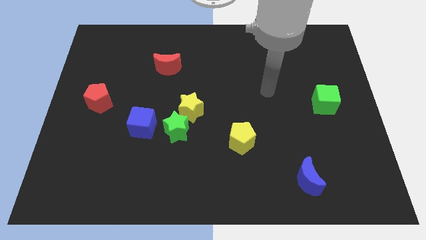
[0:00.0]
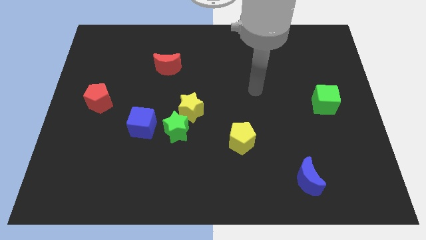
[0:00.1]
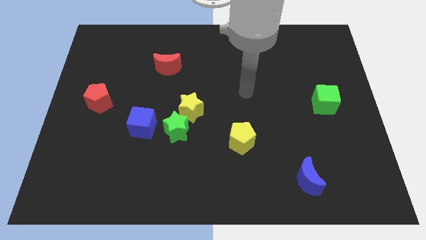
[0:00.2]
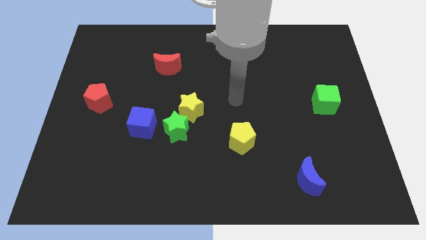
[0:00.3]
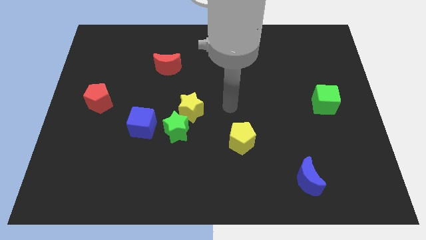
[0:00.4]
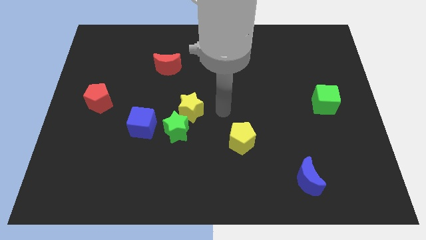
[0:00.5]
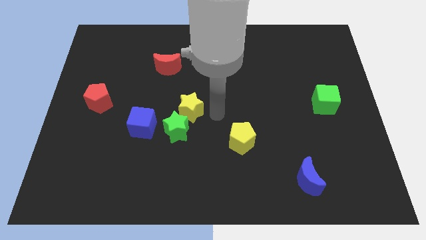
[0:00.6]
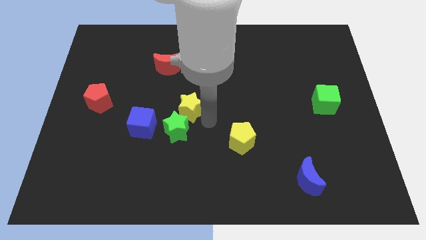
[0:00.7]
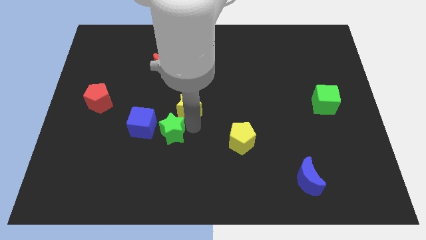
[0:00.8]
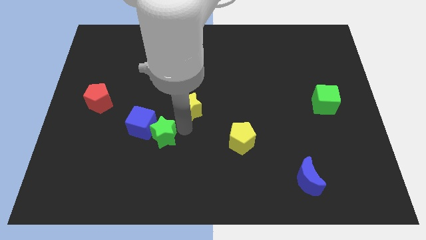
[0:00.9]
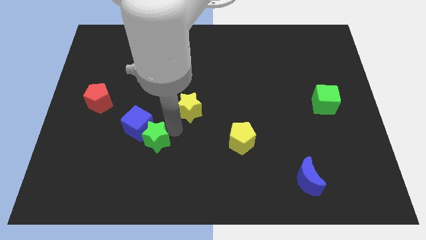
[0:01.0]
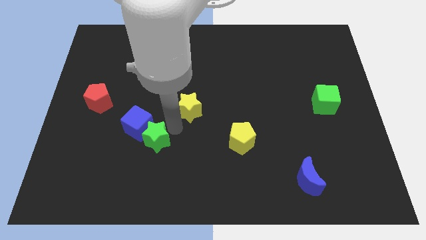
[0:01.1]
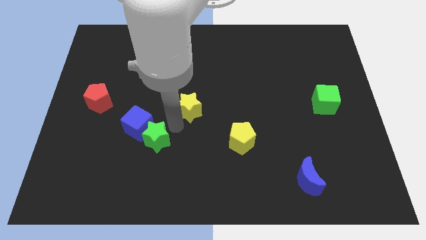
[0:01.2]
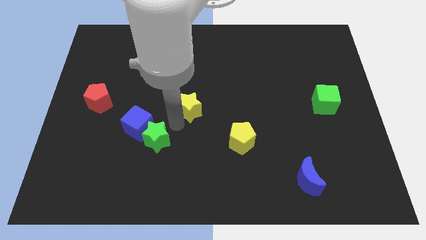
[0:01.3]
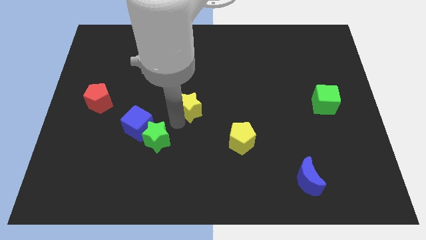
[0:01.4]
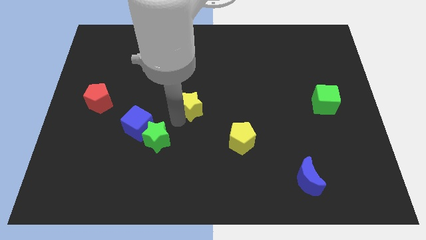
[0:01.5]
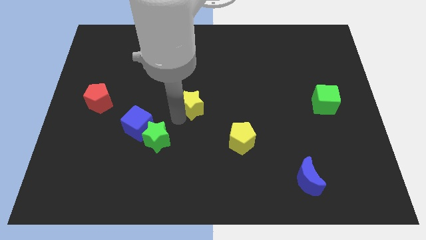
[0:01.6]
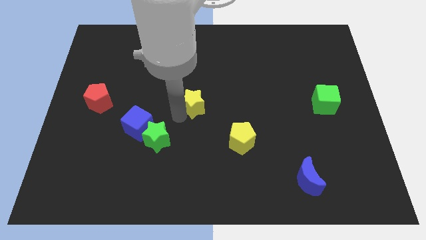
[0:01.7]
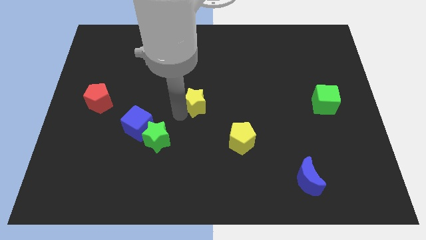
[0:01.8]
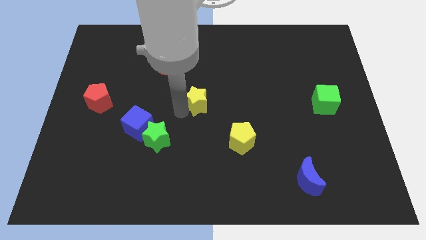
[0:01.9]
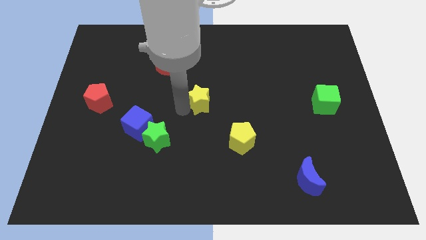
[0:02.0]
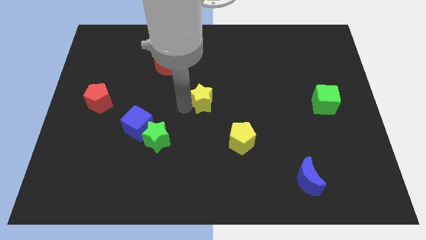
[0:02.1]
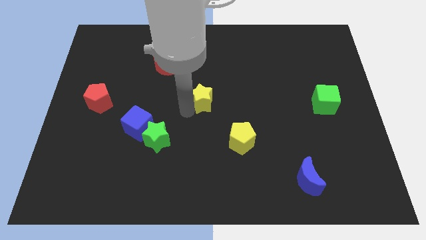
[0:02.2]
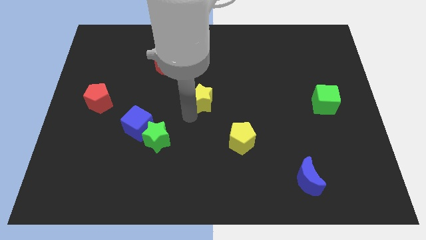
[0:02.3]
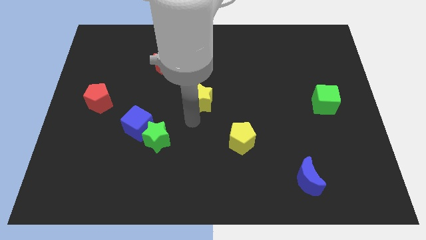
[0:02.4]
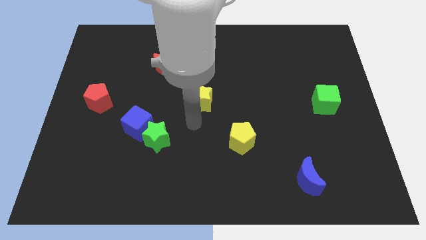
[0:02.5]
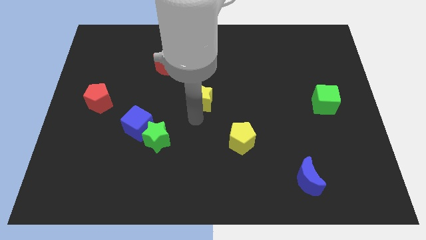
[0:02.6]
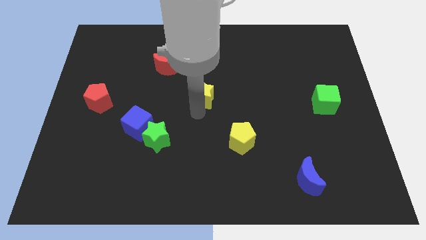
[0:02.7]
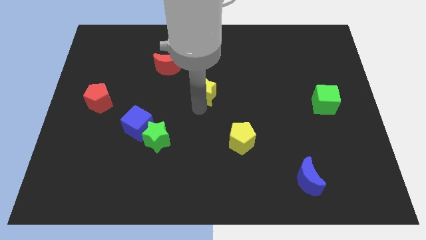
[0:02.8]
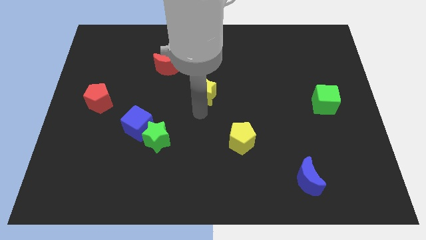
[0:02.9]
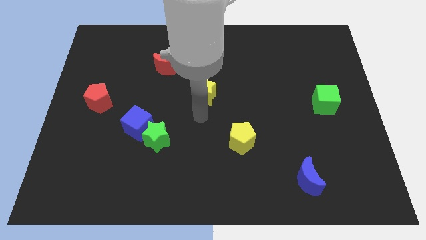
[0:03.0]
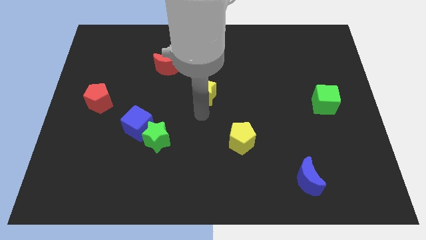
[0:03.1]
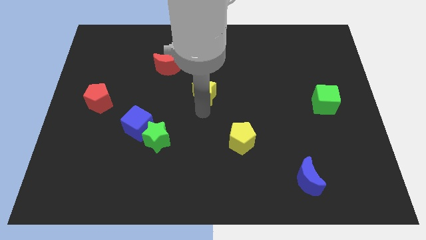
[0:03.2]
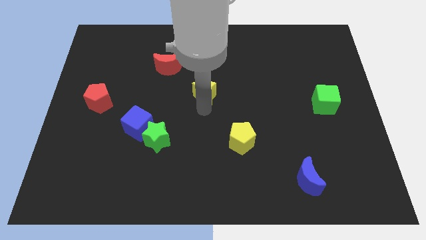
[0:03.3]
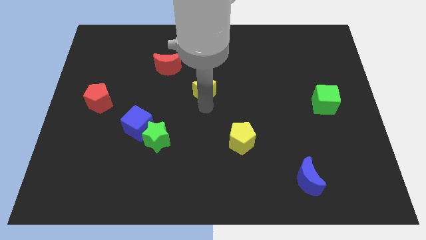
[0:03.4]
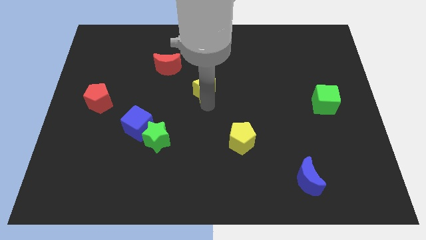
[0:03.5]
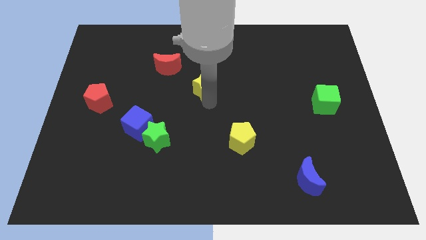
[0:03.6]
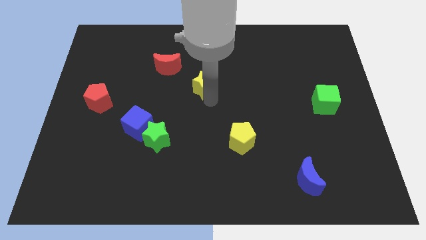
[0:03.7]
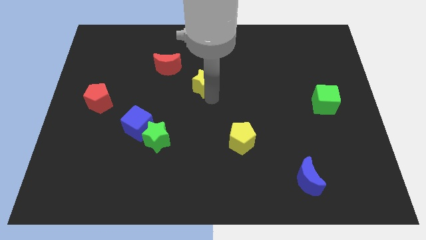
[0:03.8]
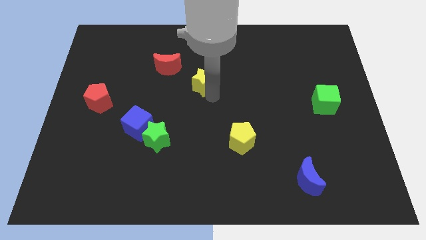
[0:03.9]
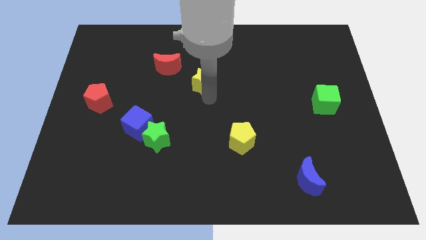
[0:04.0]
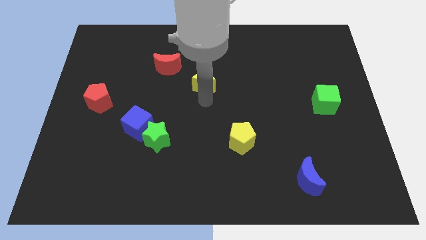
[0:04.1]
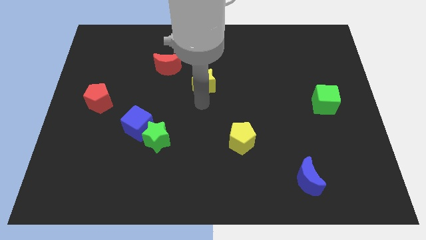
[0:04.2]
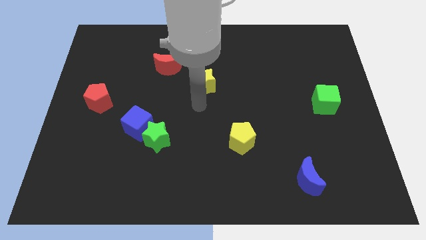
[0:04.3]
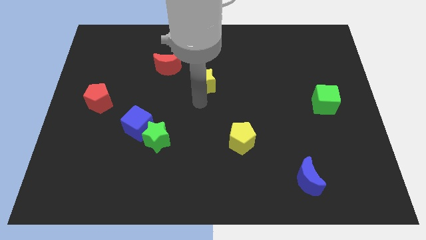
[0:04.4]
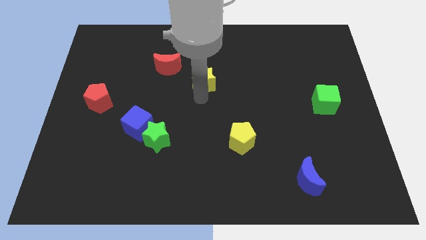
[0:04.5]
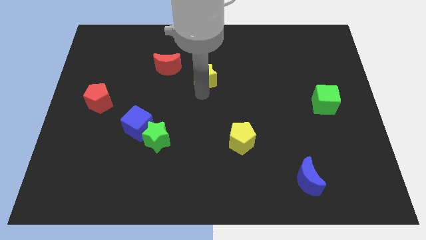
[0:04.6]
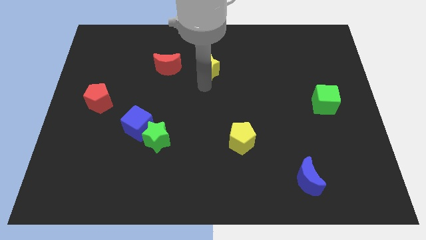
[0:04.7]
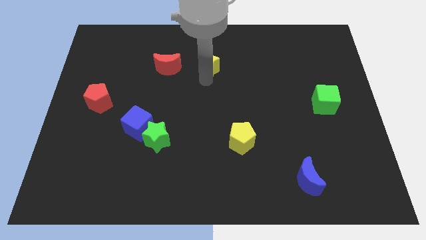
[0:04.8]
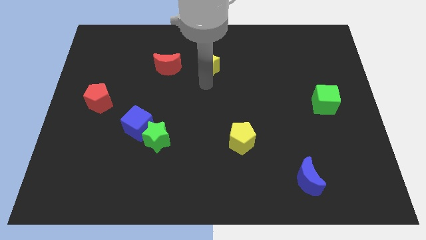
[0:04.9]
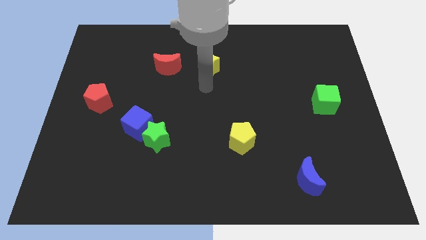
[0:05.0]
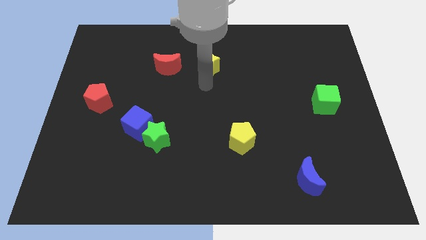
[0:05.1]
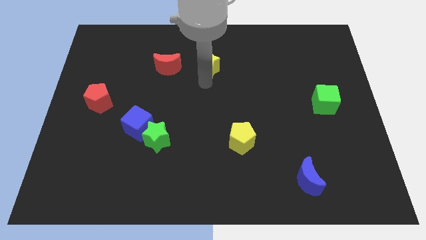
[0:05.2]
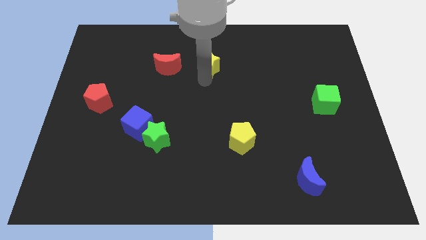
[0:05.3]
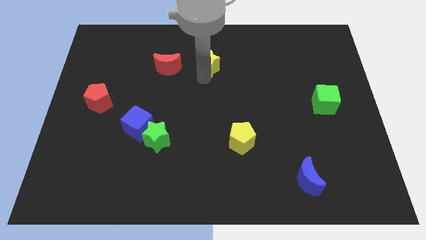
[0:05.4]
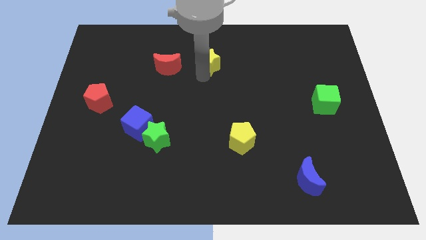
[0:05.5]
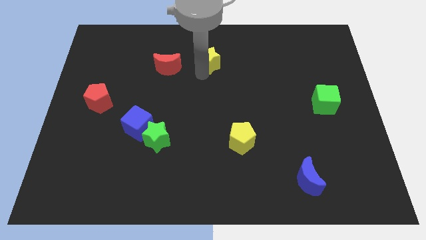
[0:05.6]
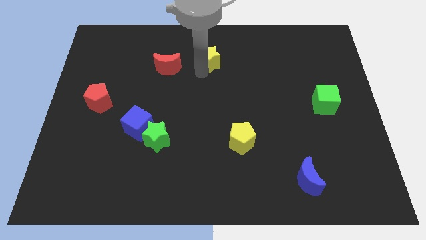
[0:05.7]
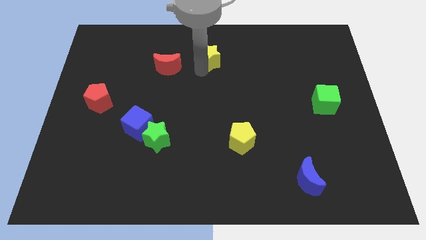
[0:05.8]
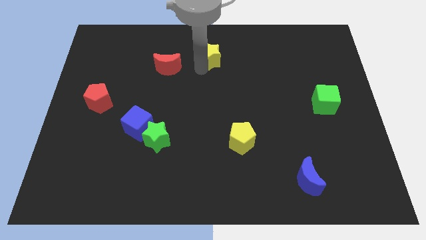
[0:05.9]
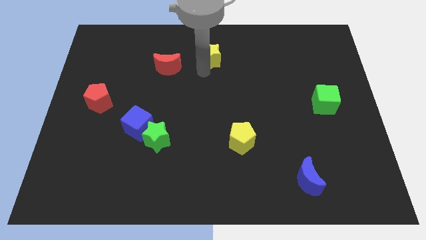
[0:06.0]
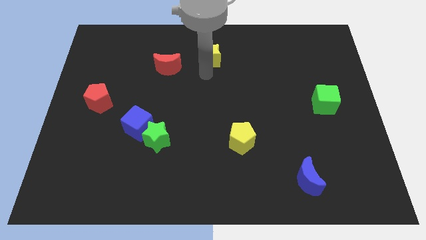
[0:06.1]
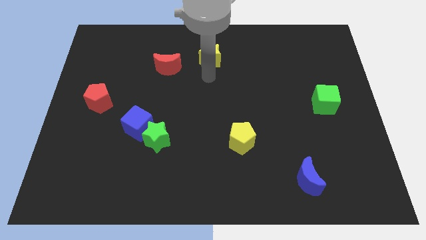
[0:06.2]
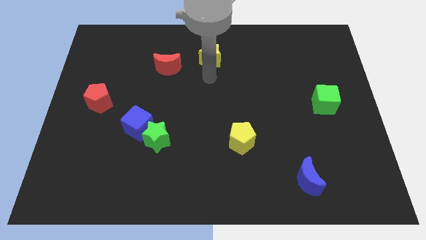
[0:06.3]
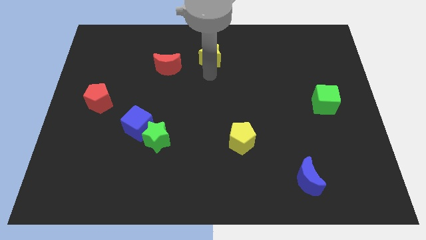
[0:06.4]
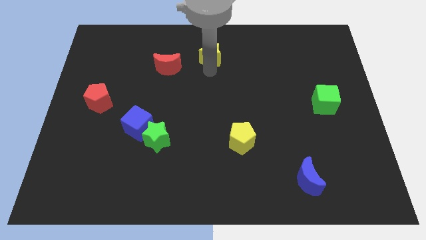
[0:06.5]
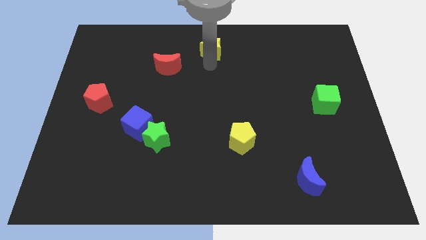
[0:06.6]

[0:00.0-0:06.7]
push the yellow star to the top side
